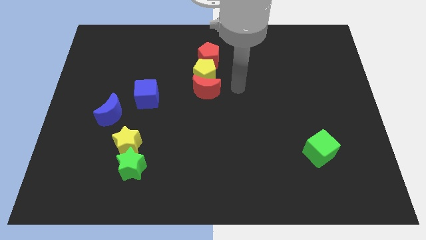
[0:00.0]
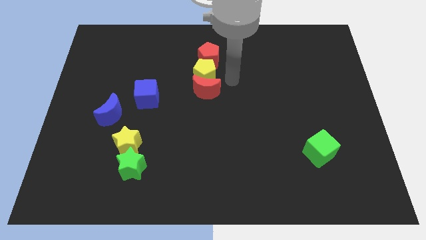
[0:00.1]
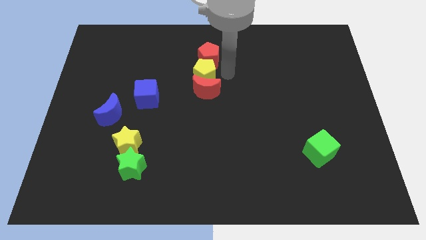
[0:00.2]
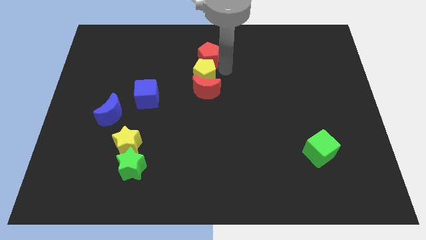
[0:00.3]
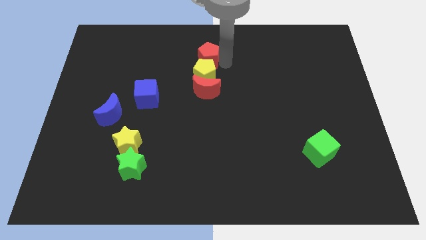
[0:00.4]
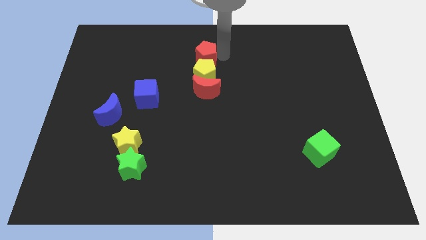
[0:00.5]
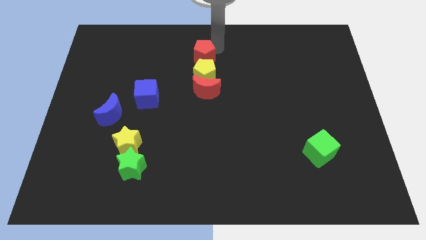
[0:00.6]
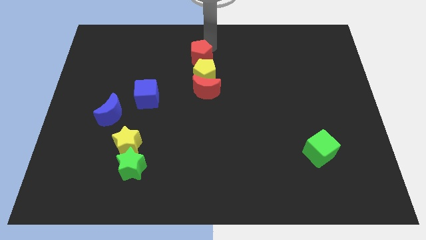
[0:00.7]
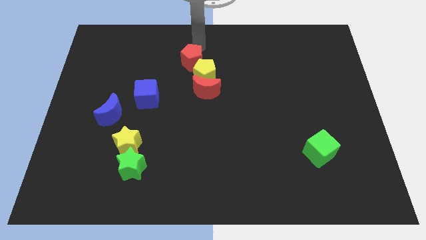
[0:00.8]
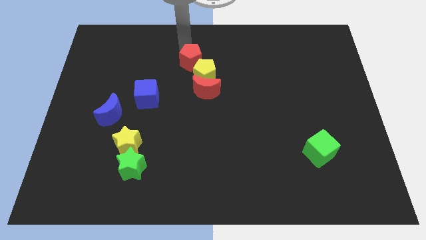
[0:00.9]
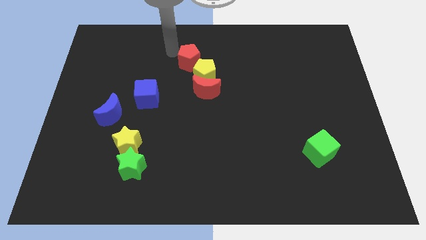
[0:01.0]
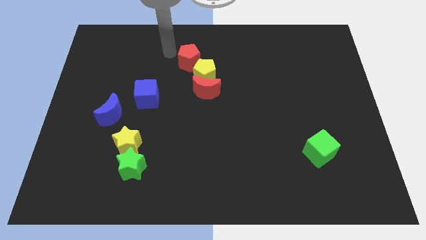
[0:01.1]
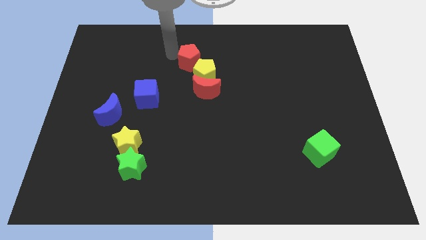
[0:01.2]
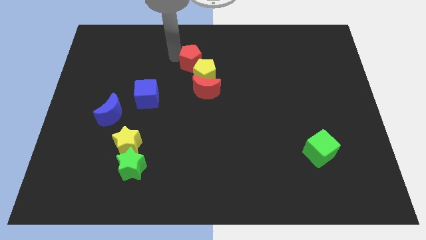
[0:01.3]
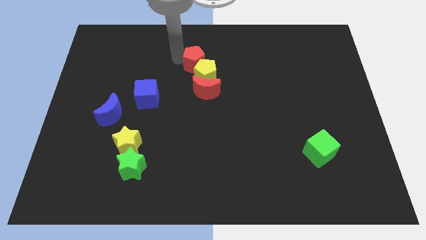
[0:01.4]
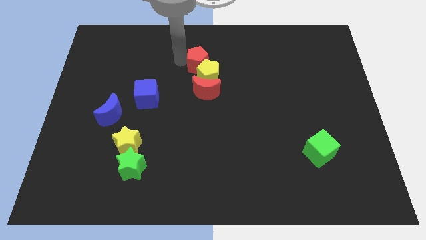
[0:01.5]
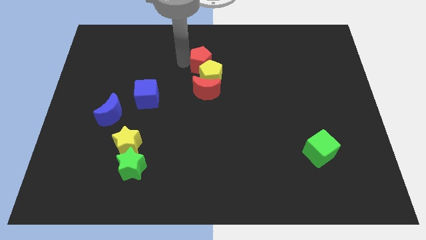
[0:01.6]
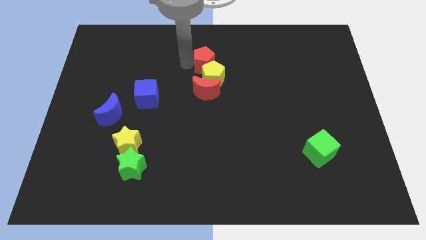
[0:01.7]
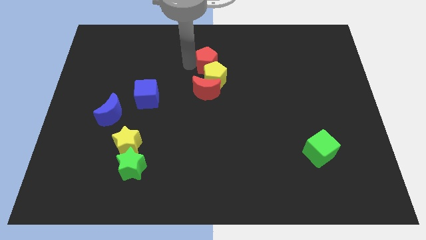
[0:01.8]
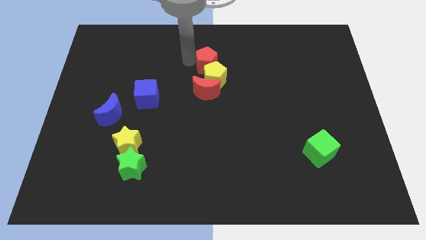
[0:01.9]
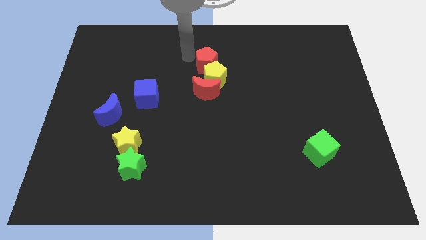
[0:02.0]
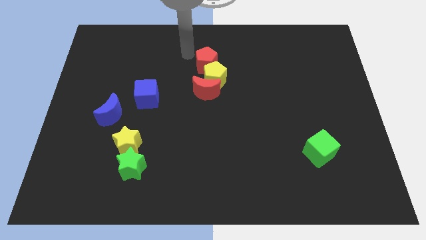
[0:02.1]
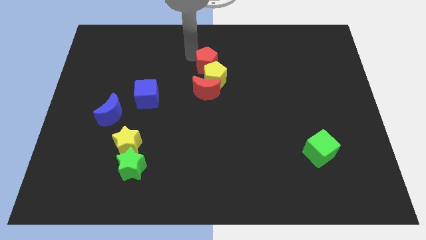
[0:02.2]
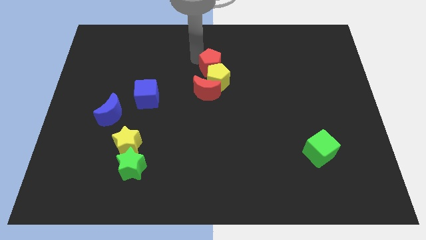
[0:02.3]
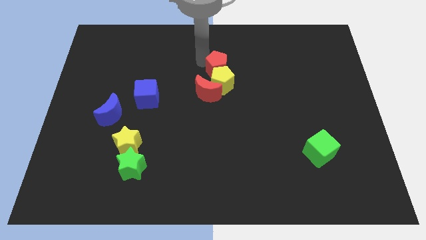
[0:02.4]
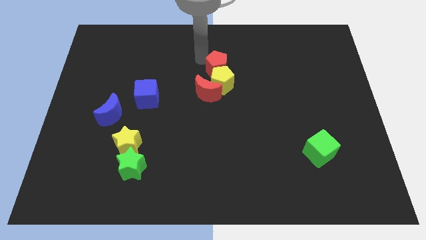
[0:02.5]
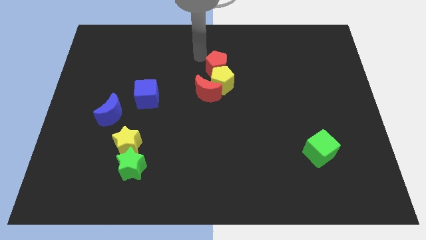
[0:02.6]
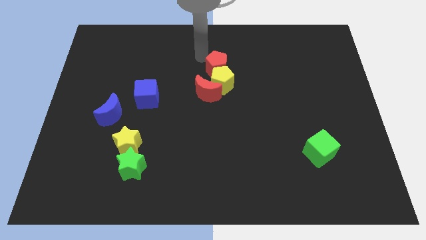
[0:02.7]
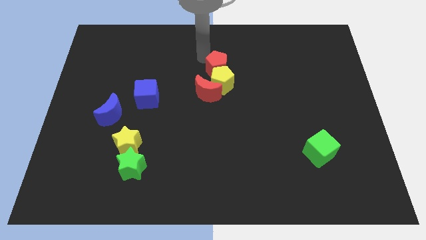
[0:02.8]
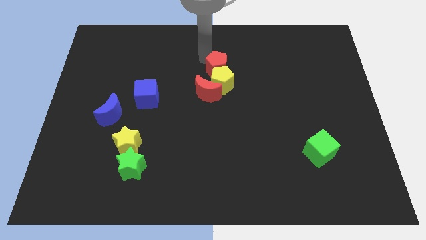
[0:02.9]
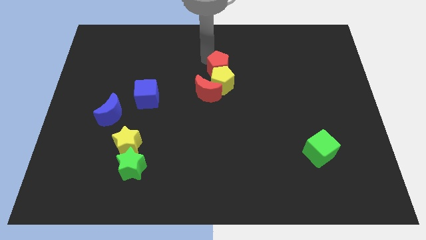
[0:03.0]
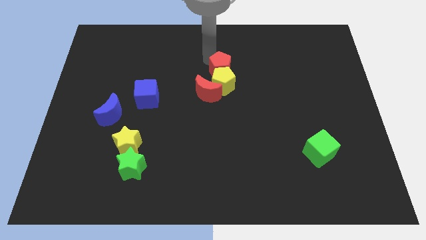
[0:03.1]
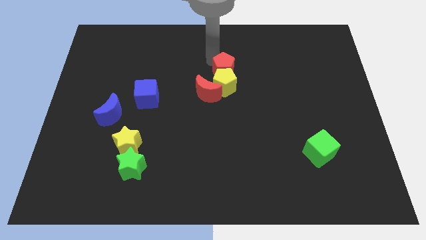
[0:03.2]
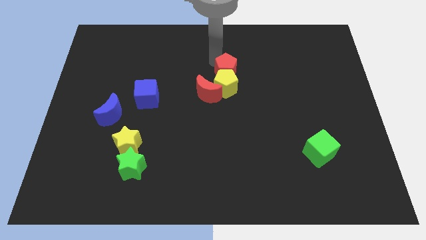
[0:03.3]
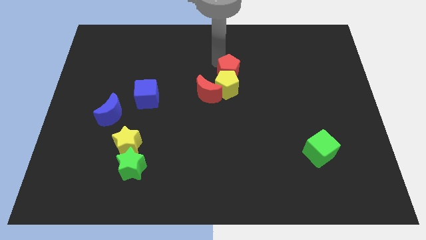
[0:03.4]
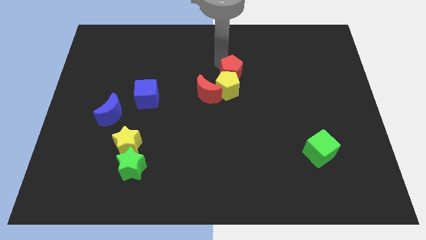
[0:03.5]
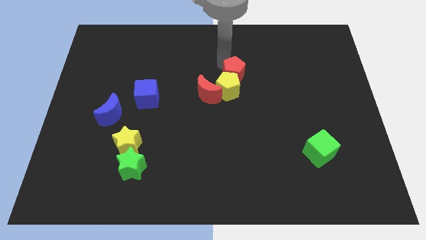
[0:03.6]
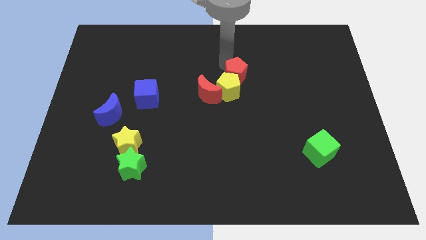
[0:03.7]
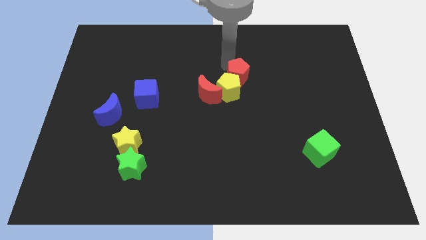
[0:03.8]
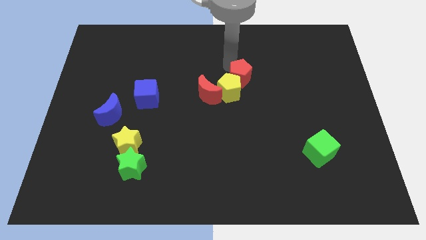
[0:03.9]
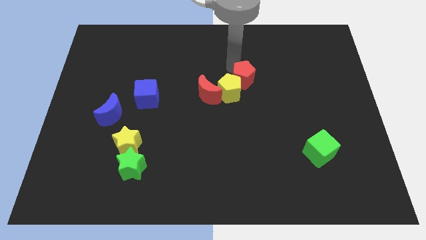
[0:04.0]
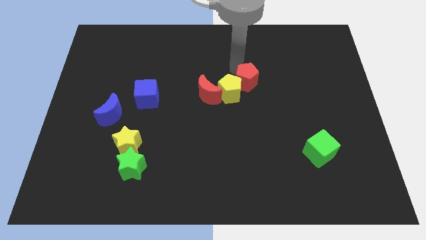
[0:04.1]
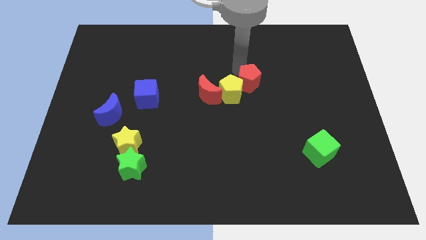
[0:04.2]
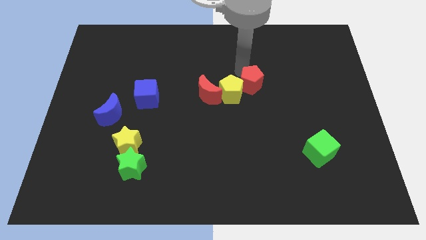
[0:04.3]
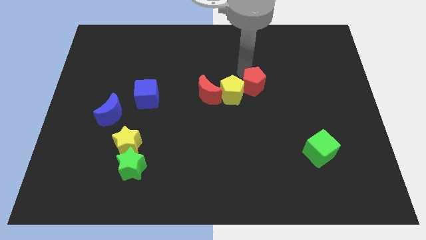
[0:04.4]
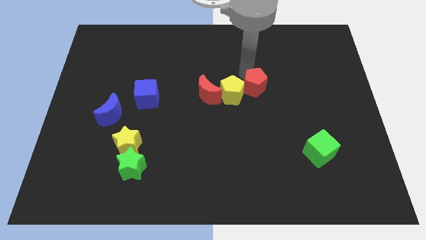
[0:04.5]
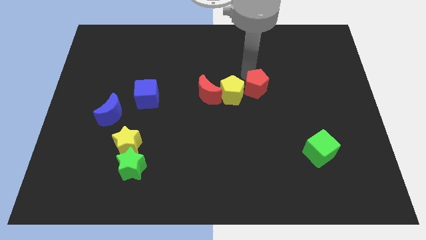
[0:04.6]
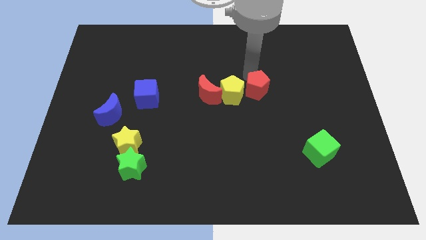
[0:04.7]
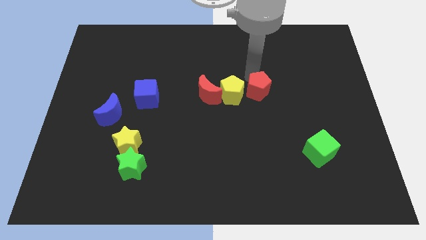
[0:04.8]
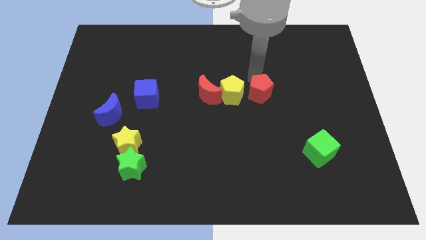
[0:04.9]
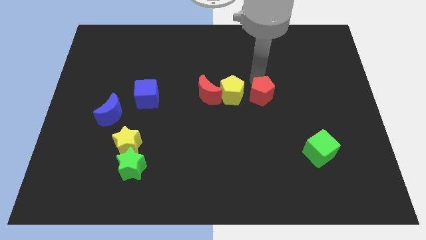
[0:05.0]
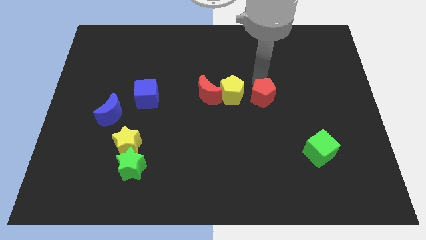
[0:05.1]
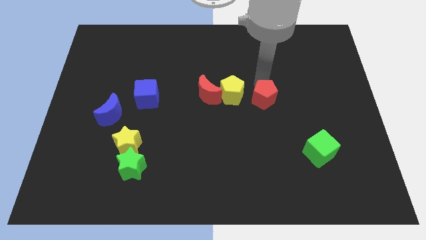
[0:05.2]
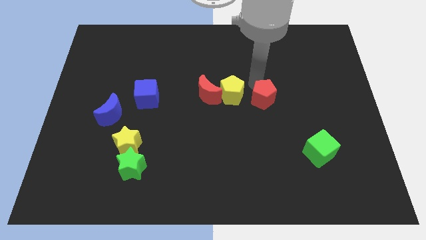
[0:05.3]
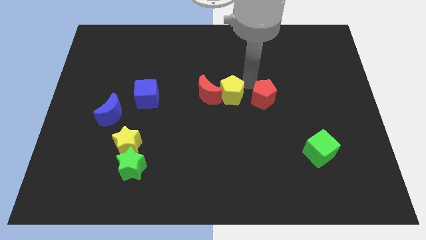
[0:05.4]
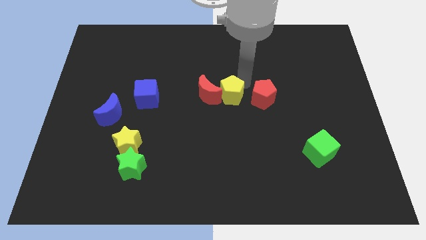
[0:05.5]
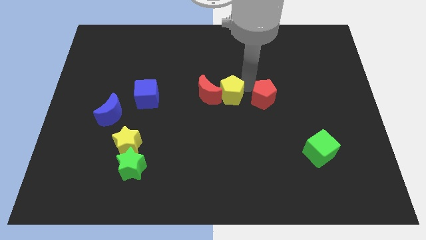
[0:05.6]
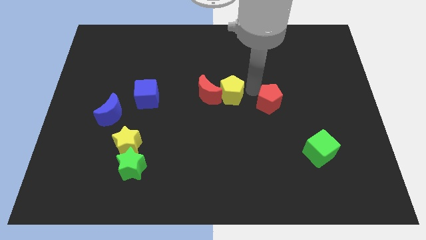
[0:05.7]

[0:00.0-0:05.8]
slide the red pentagon downwards and then to the right

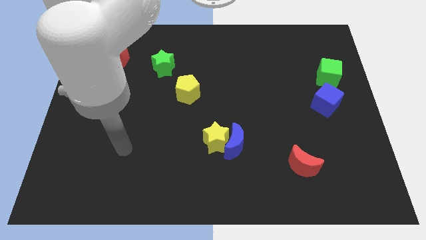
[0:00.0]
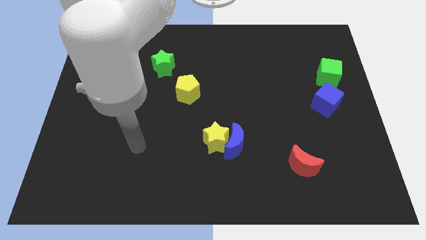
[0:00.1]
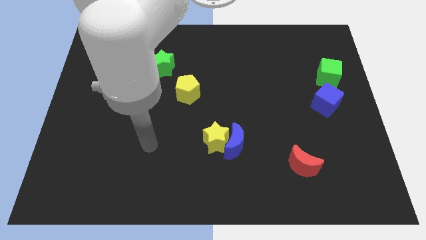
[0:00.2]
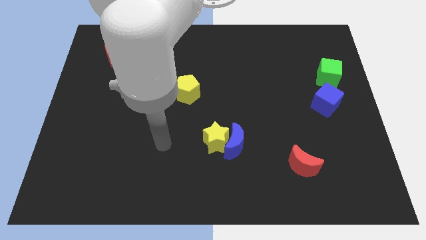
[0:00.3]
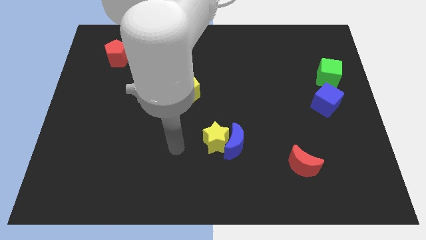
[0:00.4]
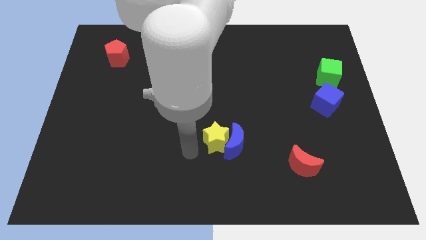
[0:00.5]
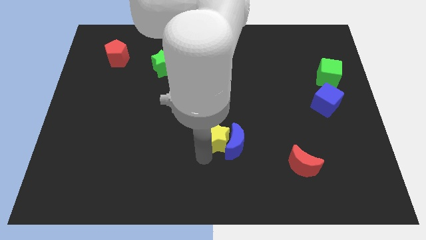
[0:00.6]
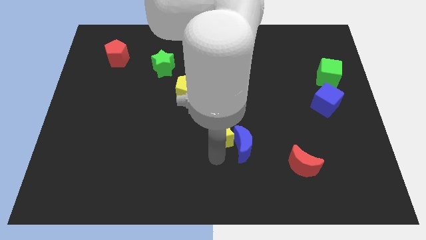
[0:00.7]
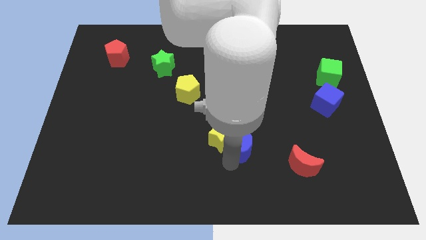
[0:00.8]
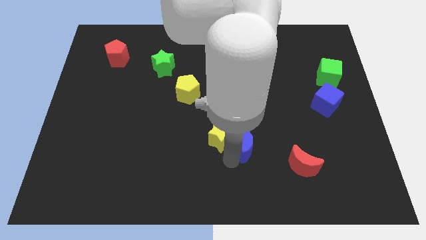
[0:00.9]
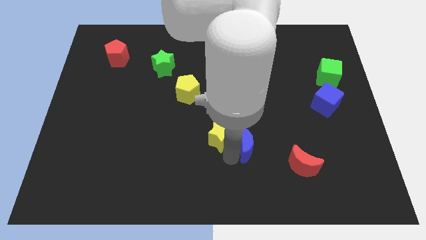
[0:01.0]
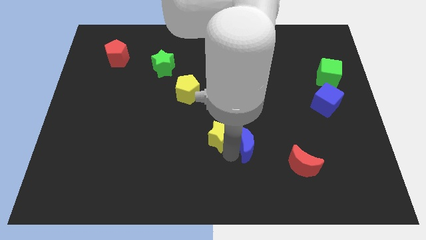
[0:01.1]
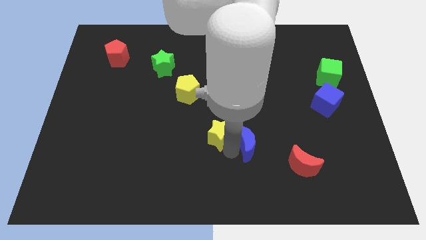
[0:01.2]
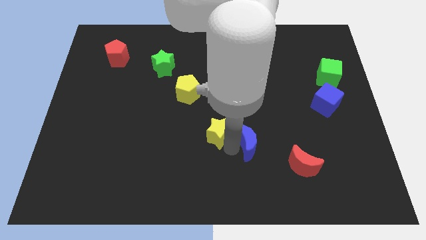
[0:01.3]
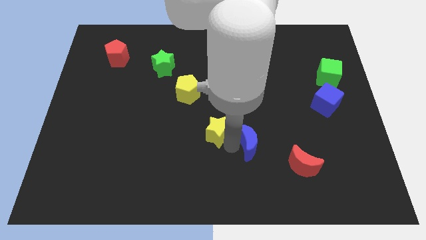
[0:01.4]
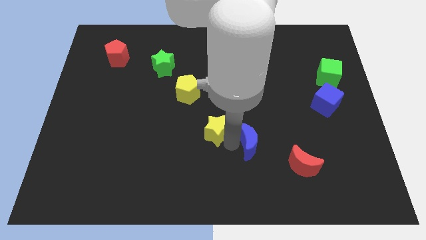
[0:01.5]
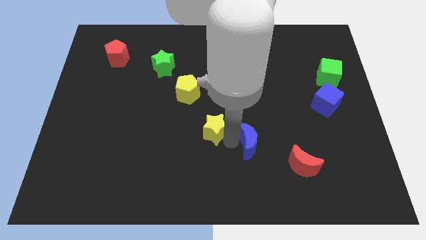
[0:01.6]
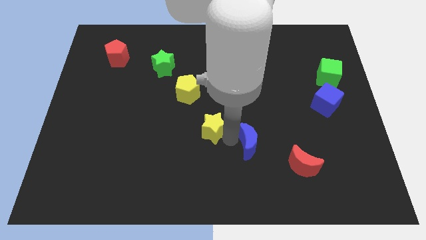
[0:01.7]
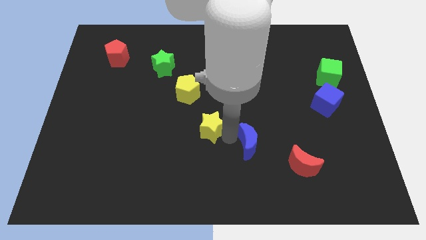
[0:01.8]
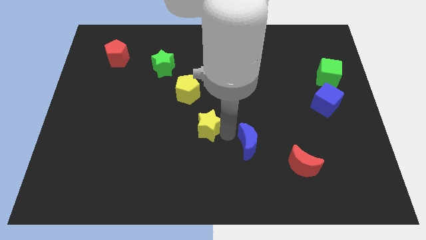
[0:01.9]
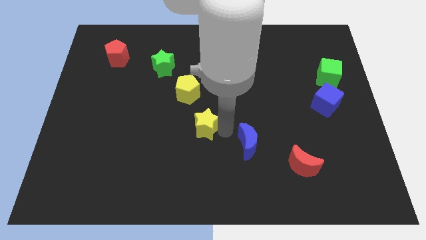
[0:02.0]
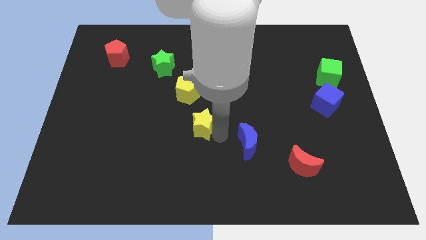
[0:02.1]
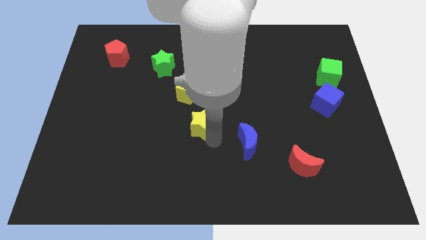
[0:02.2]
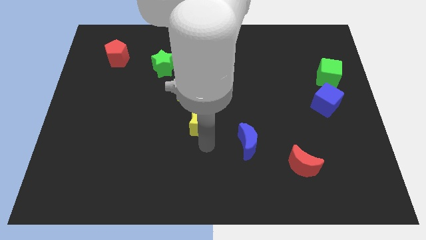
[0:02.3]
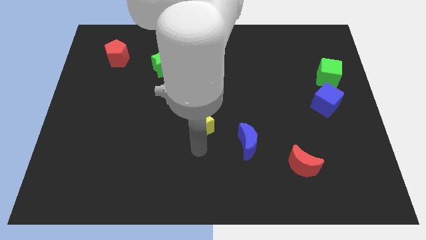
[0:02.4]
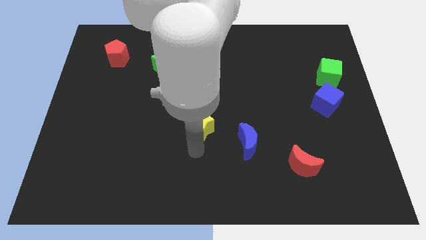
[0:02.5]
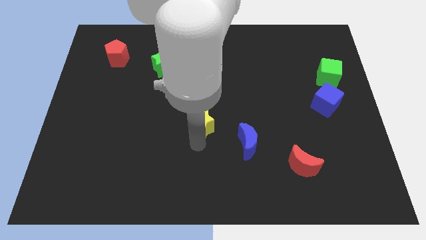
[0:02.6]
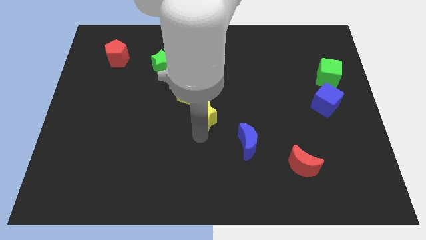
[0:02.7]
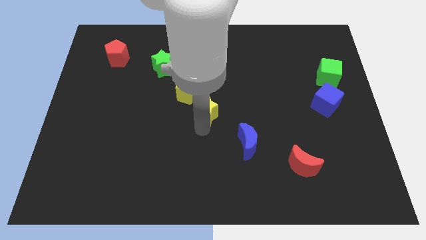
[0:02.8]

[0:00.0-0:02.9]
move the yellow star a bit up
